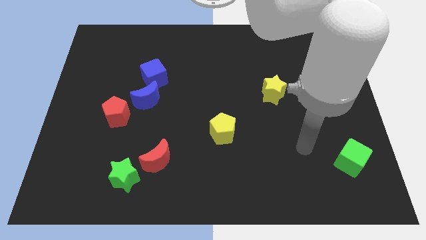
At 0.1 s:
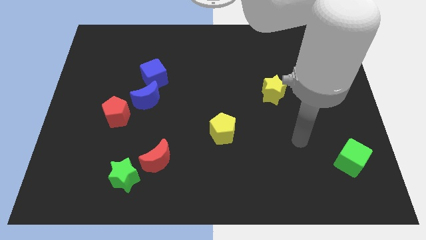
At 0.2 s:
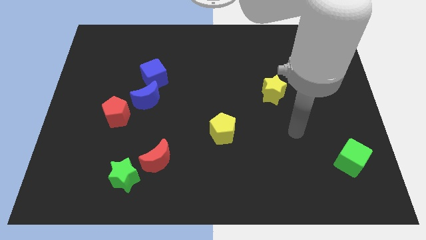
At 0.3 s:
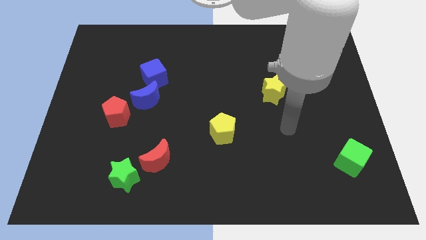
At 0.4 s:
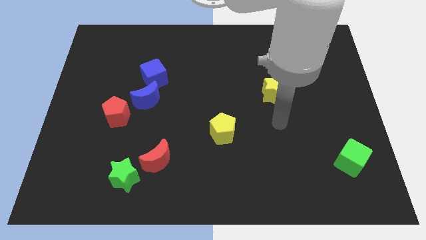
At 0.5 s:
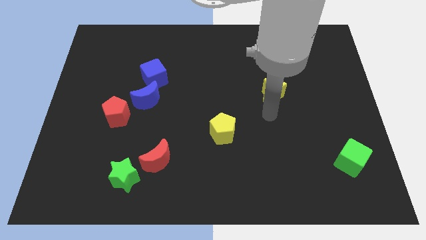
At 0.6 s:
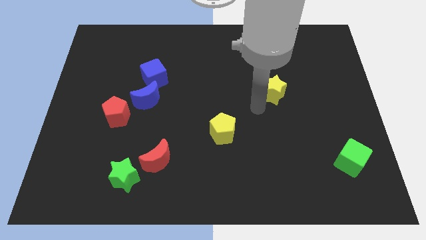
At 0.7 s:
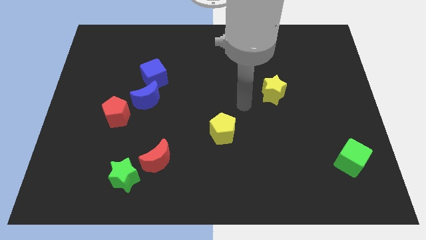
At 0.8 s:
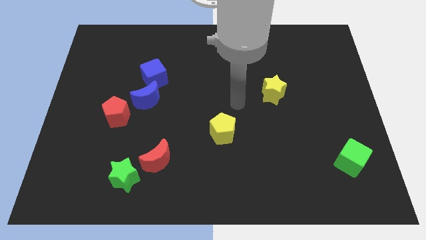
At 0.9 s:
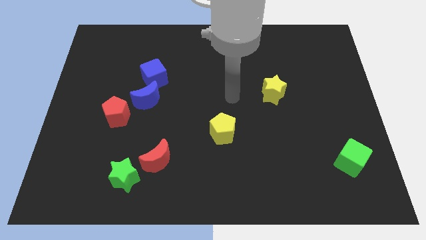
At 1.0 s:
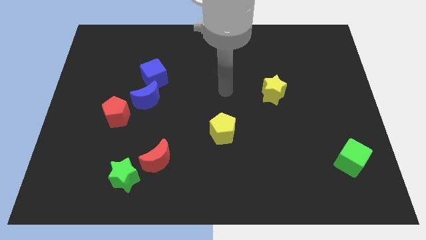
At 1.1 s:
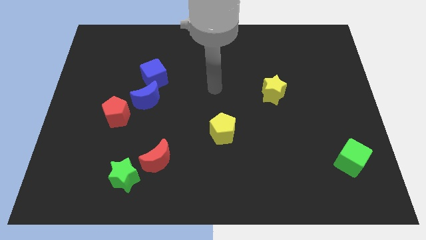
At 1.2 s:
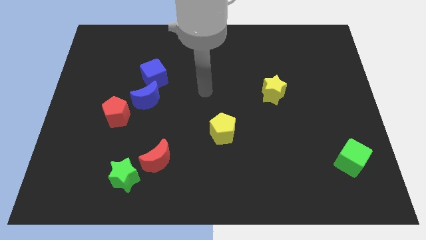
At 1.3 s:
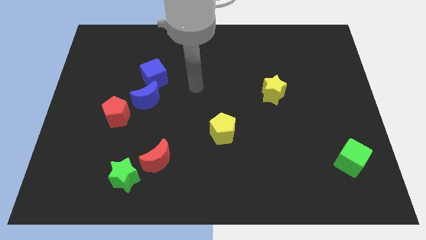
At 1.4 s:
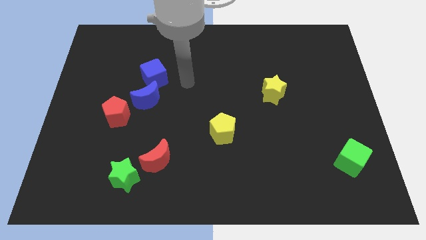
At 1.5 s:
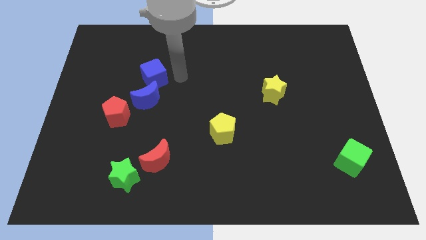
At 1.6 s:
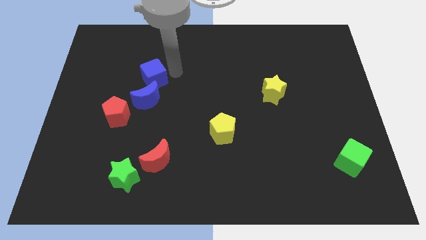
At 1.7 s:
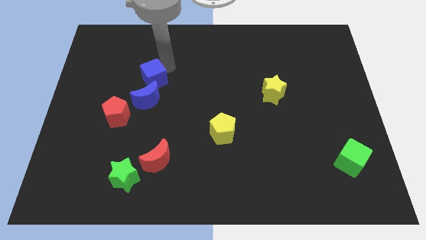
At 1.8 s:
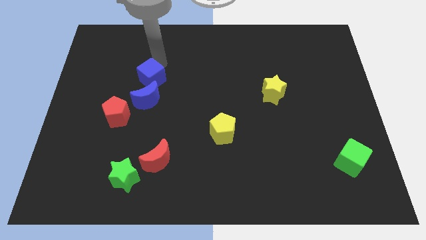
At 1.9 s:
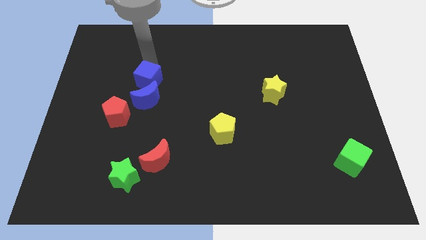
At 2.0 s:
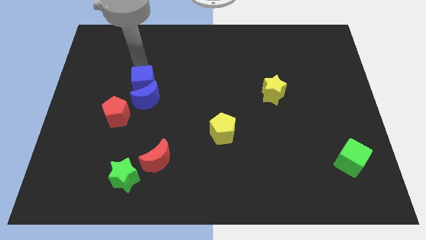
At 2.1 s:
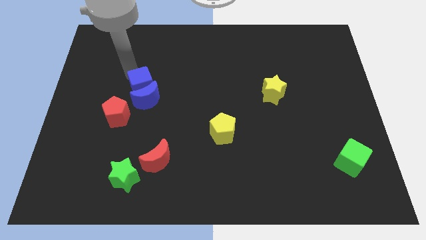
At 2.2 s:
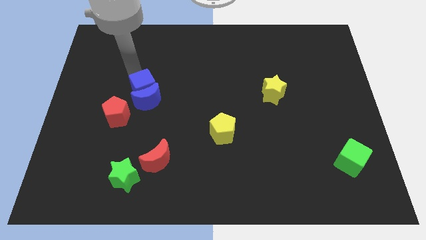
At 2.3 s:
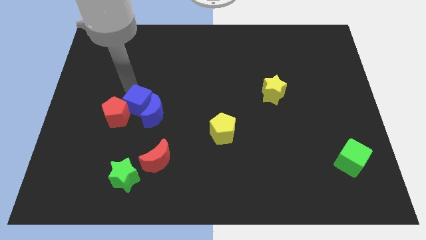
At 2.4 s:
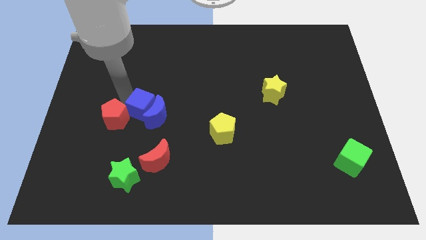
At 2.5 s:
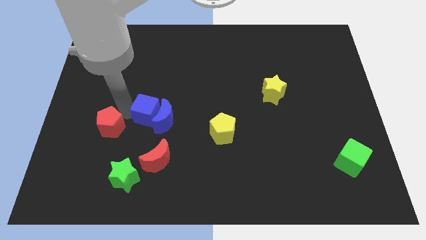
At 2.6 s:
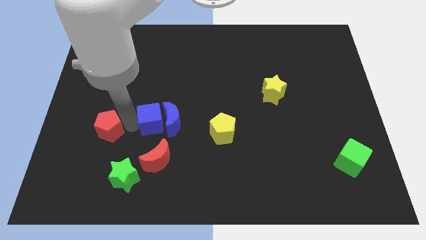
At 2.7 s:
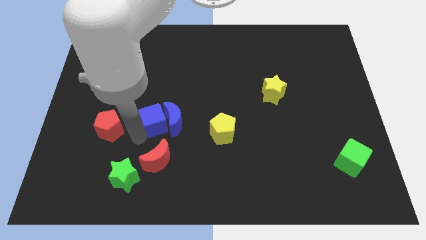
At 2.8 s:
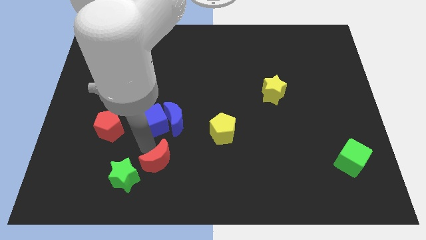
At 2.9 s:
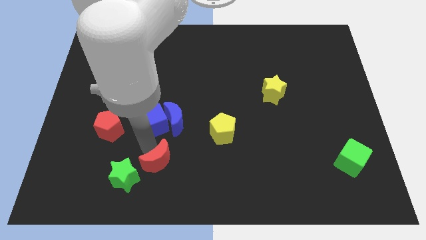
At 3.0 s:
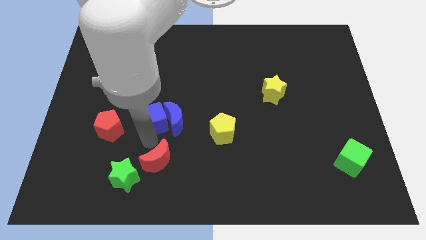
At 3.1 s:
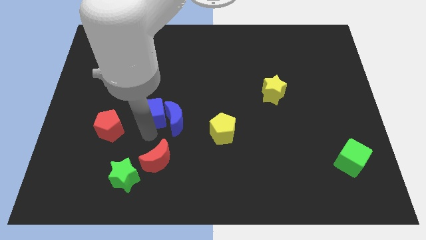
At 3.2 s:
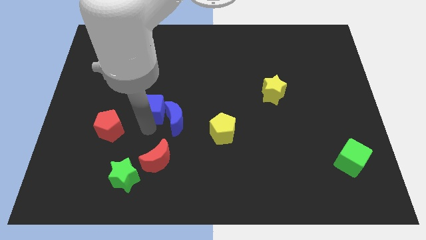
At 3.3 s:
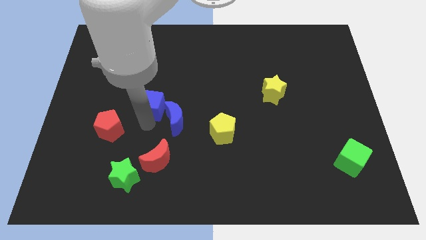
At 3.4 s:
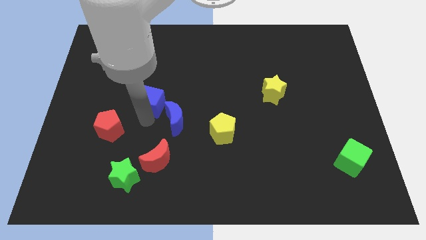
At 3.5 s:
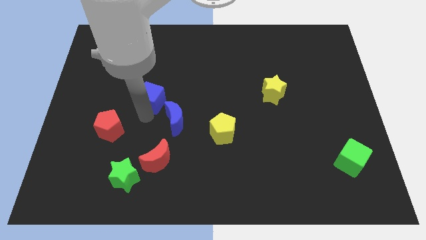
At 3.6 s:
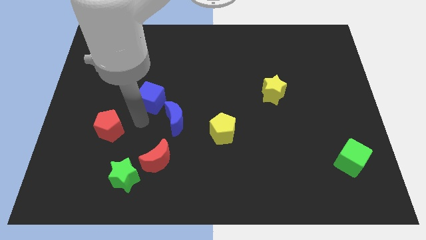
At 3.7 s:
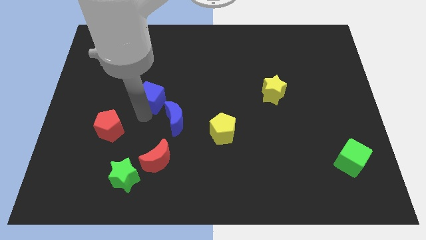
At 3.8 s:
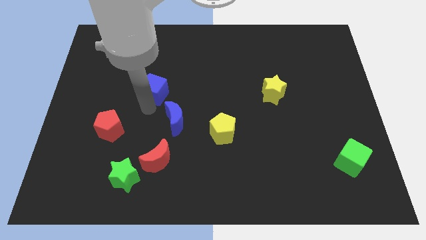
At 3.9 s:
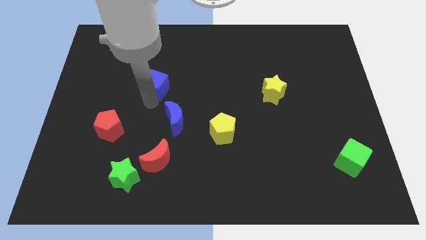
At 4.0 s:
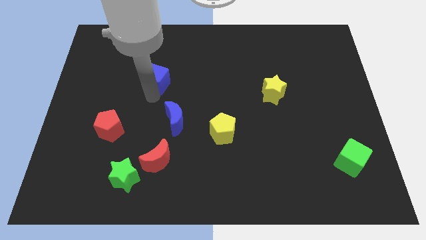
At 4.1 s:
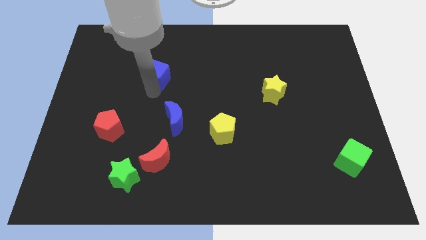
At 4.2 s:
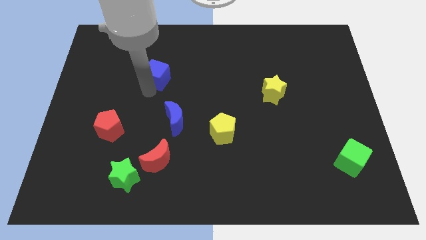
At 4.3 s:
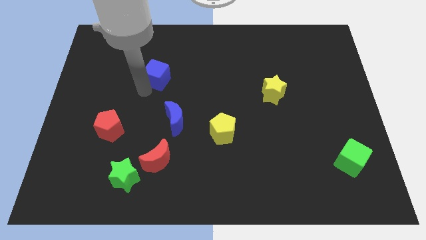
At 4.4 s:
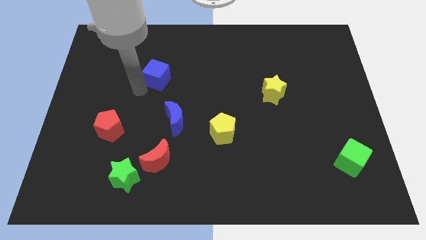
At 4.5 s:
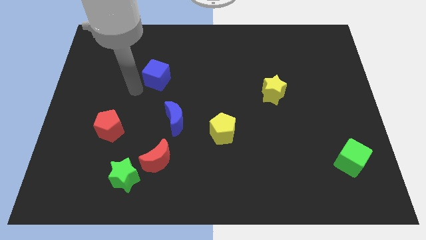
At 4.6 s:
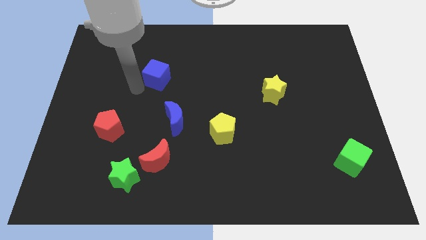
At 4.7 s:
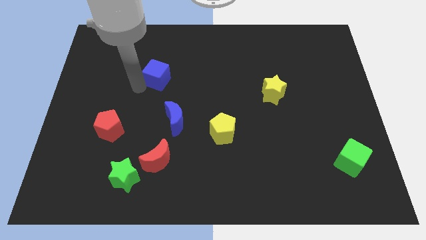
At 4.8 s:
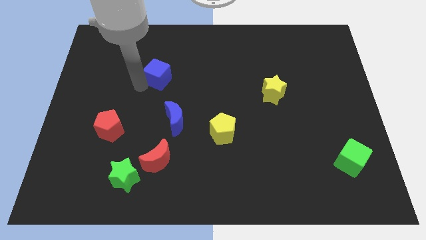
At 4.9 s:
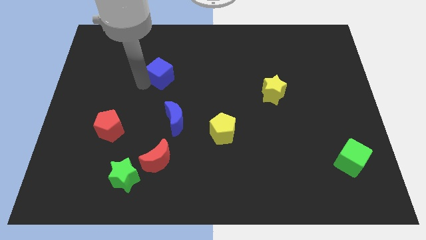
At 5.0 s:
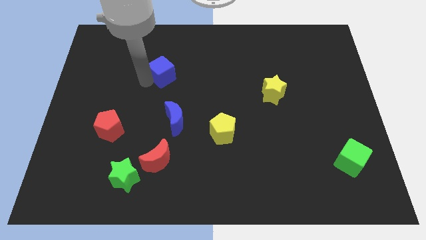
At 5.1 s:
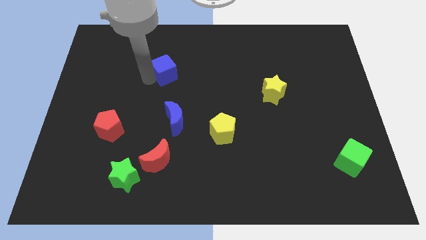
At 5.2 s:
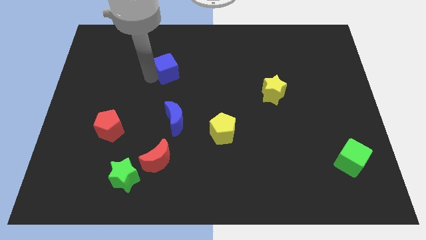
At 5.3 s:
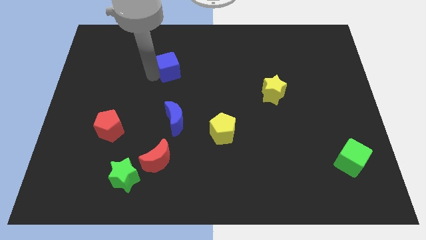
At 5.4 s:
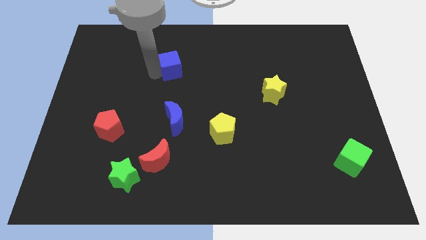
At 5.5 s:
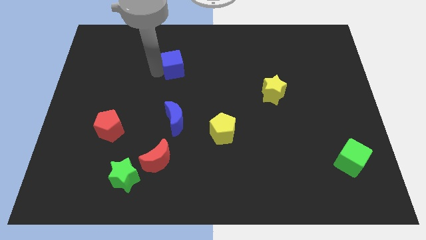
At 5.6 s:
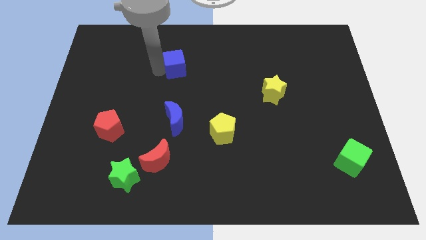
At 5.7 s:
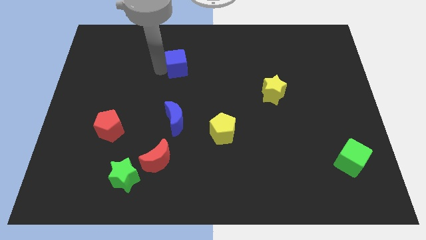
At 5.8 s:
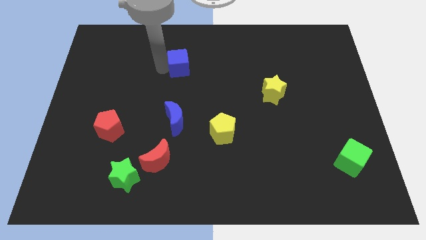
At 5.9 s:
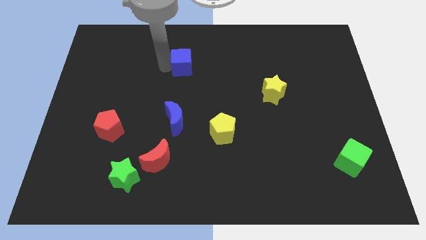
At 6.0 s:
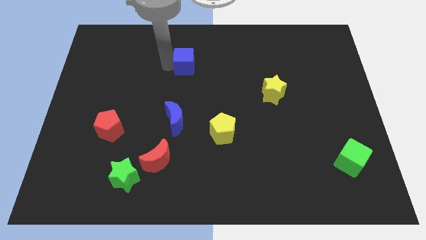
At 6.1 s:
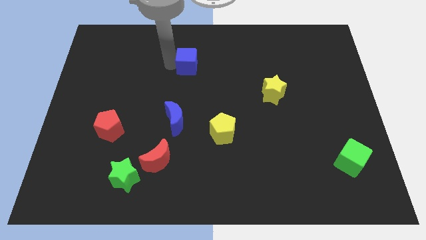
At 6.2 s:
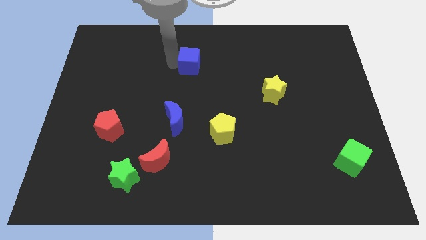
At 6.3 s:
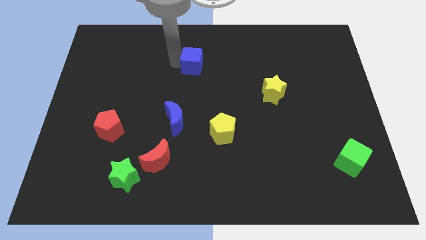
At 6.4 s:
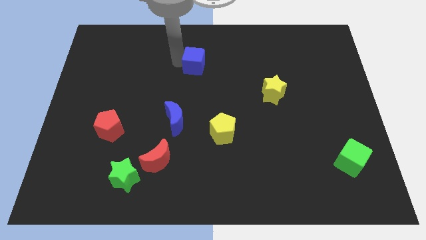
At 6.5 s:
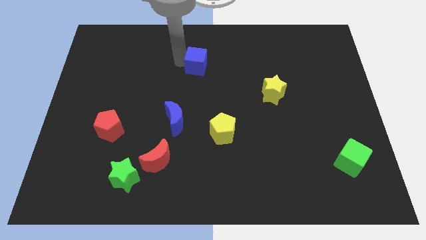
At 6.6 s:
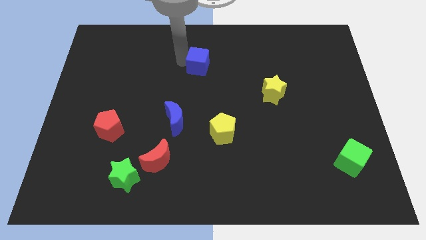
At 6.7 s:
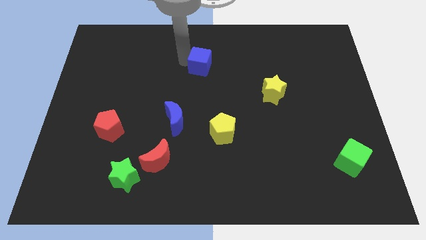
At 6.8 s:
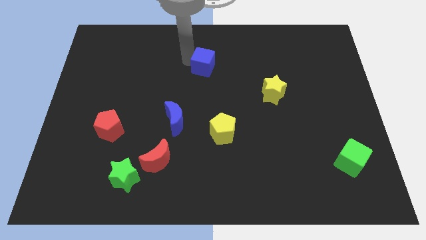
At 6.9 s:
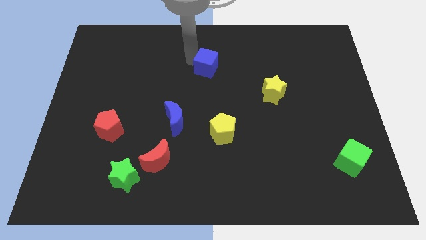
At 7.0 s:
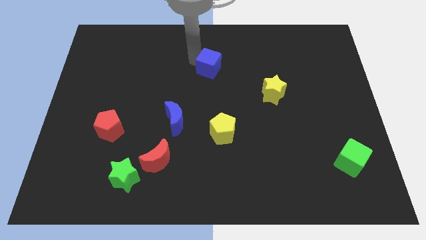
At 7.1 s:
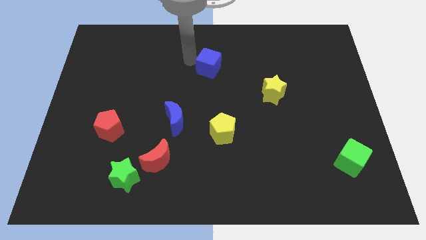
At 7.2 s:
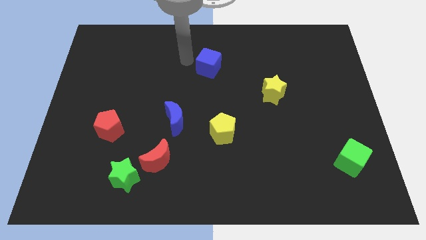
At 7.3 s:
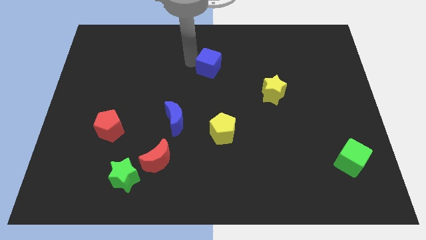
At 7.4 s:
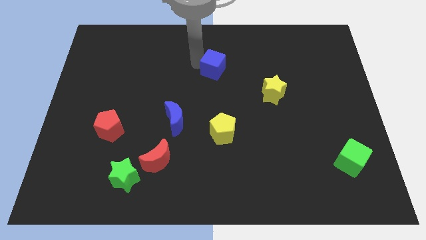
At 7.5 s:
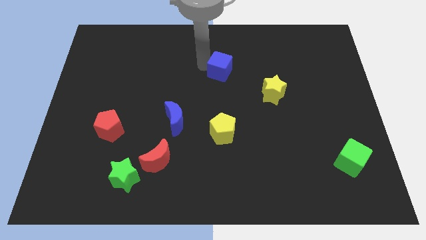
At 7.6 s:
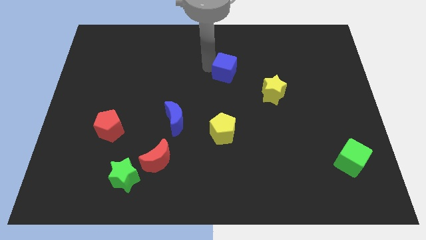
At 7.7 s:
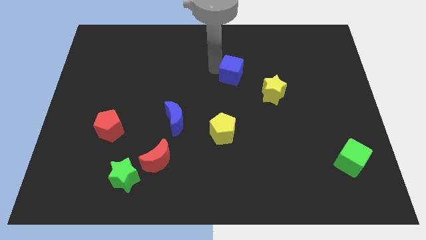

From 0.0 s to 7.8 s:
slide the blue cube diagonally up and to the left of the yellow star
